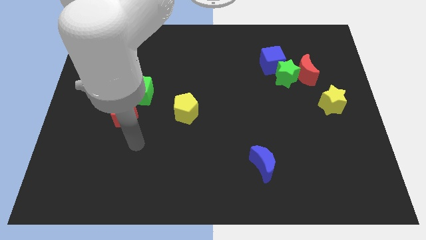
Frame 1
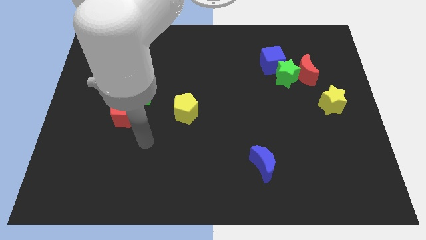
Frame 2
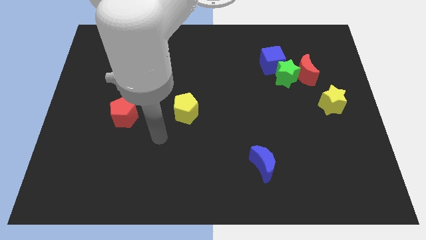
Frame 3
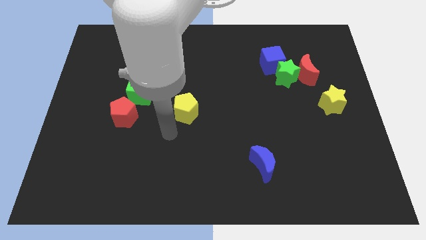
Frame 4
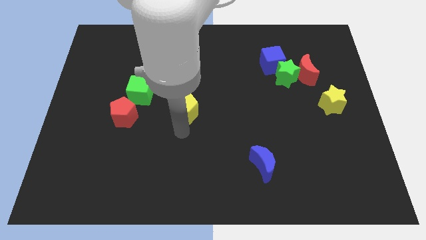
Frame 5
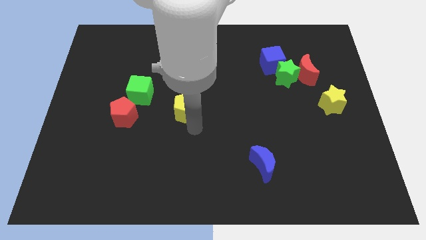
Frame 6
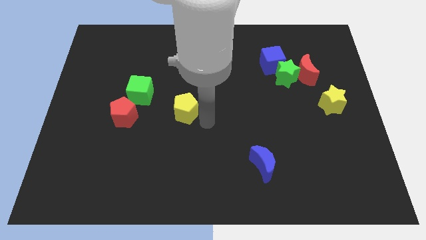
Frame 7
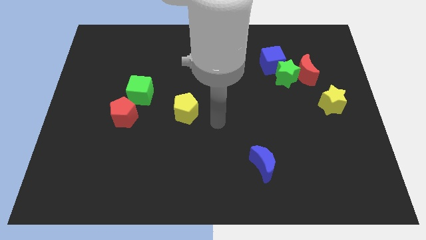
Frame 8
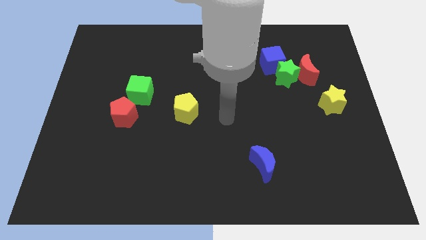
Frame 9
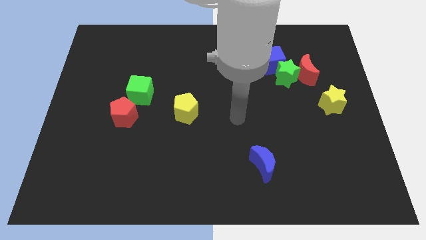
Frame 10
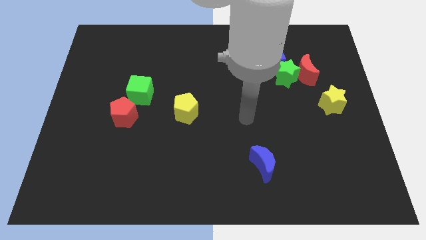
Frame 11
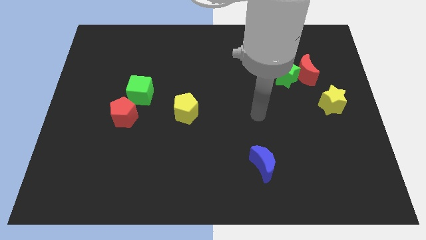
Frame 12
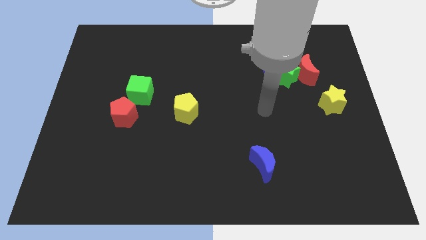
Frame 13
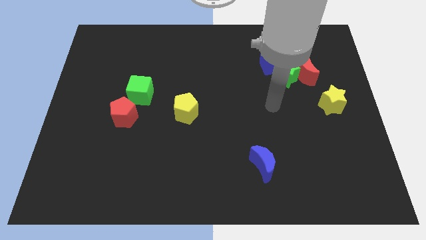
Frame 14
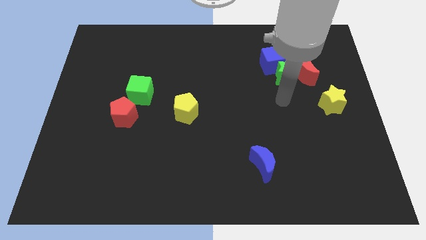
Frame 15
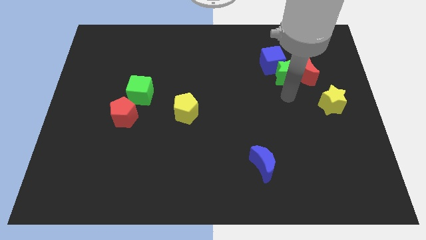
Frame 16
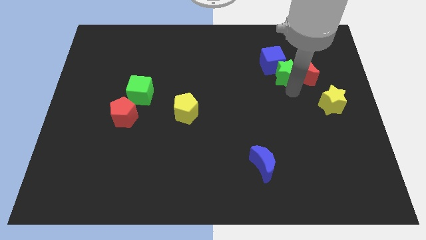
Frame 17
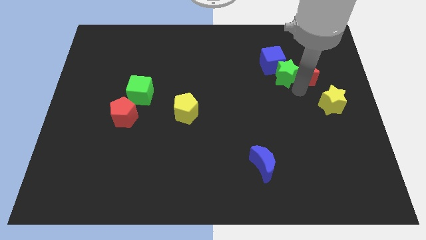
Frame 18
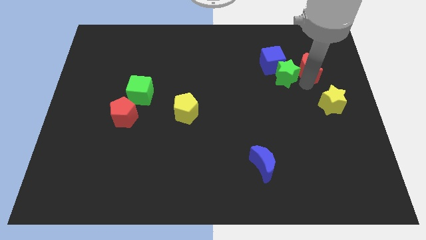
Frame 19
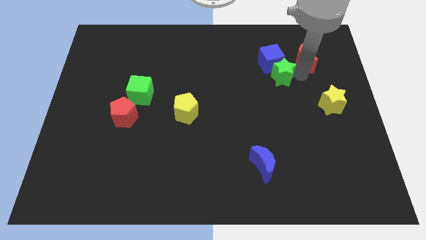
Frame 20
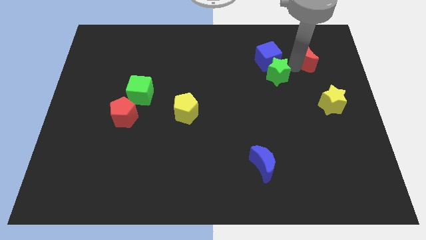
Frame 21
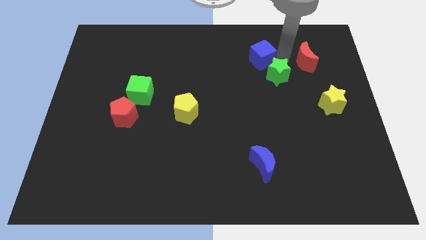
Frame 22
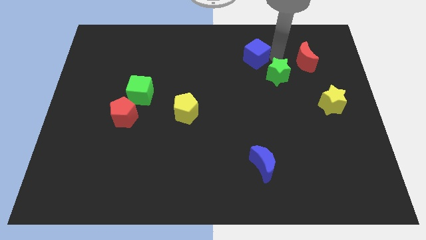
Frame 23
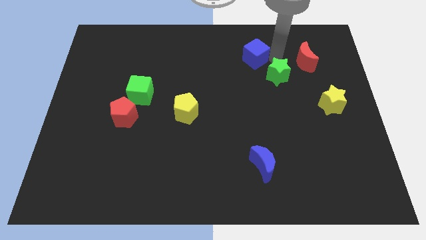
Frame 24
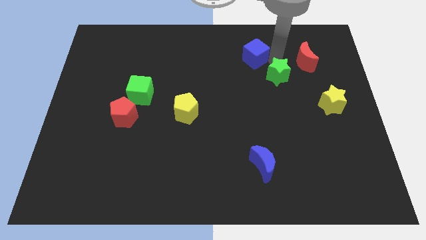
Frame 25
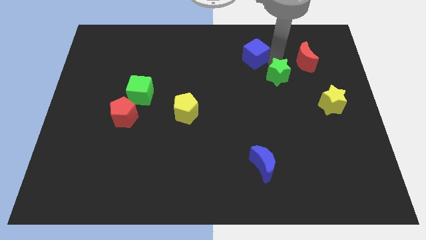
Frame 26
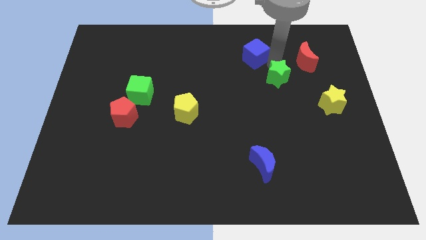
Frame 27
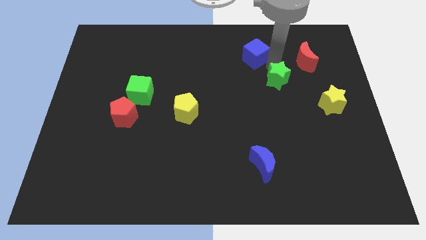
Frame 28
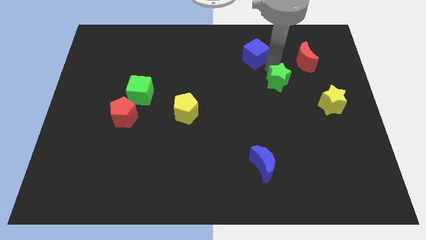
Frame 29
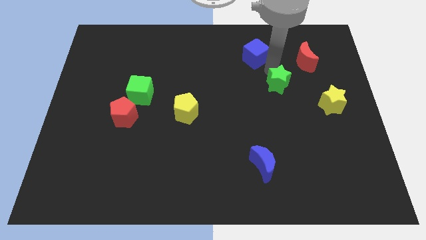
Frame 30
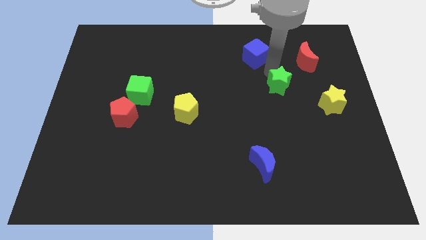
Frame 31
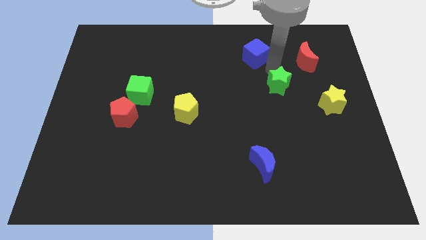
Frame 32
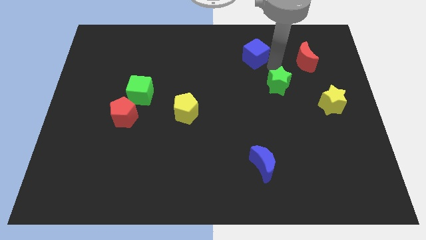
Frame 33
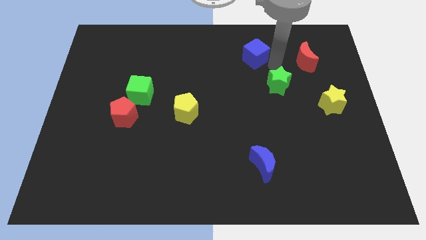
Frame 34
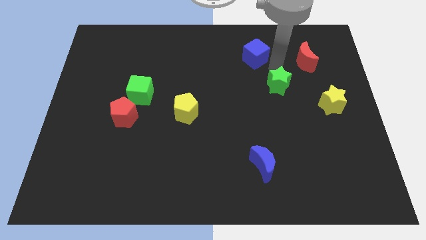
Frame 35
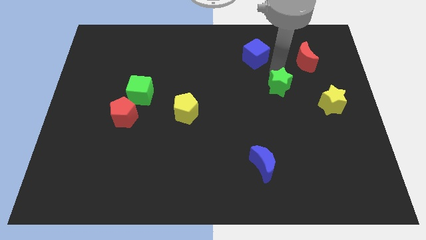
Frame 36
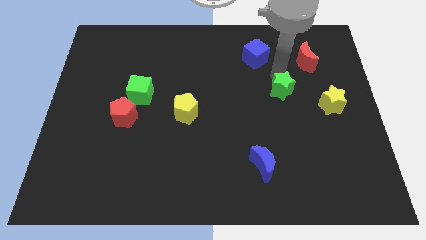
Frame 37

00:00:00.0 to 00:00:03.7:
separate the green star from the red moon and blue cube

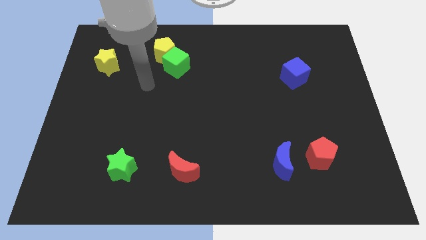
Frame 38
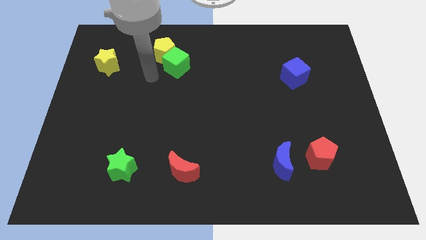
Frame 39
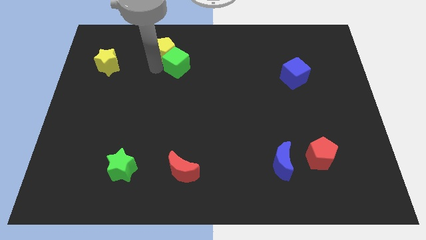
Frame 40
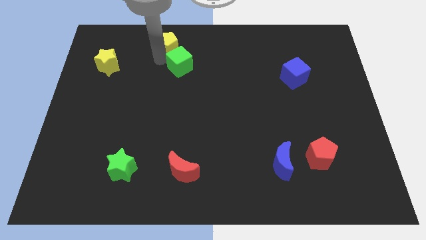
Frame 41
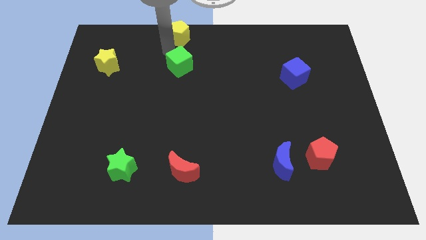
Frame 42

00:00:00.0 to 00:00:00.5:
move the green cube away from the yellow pentagon

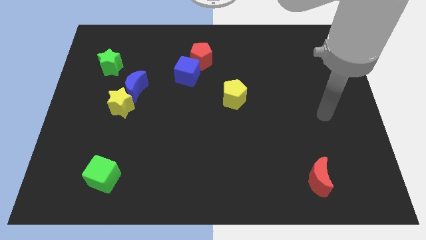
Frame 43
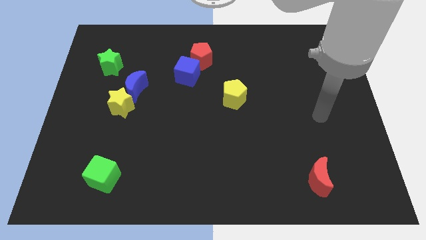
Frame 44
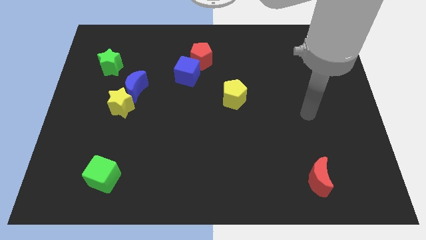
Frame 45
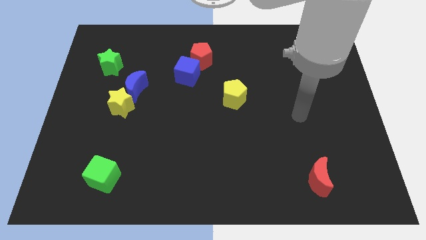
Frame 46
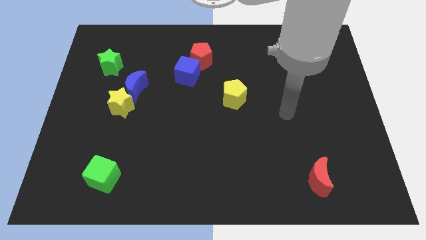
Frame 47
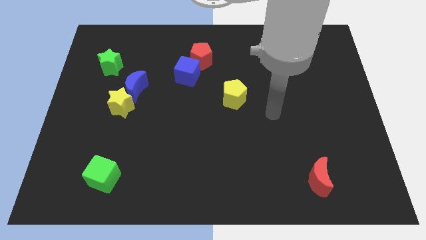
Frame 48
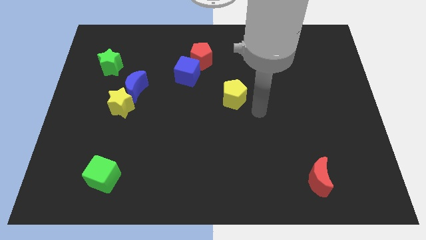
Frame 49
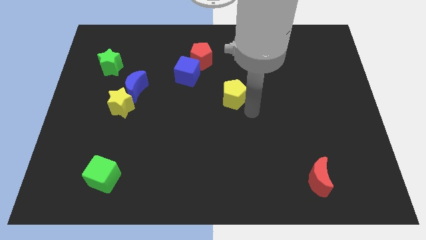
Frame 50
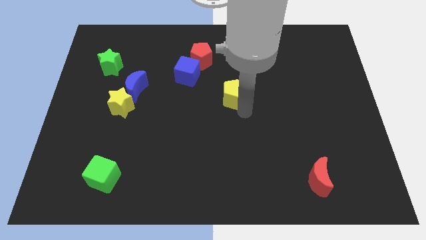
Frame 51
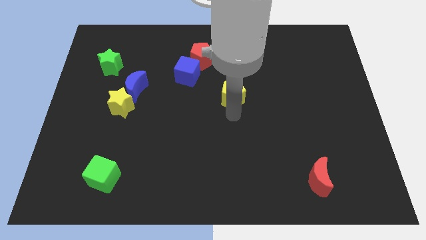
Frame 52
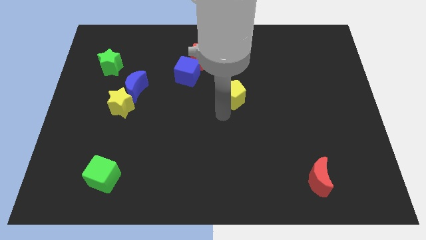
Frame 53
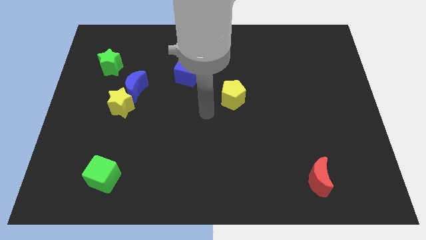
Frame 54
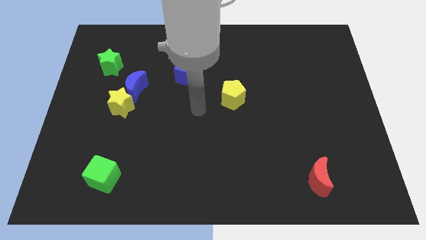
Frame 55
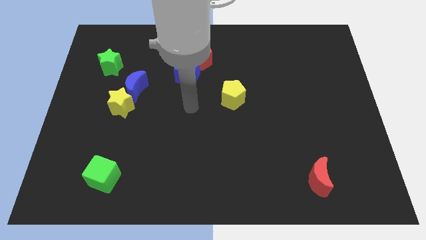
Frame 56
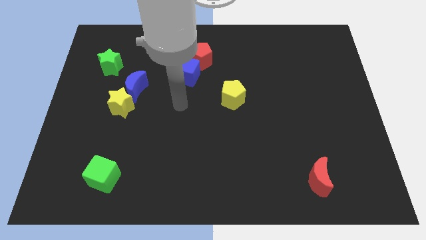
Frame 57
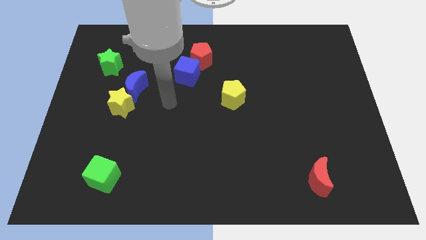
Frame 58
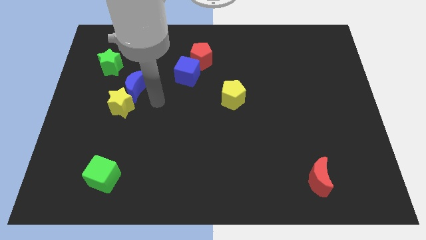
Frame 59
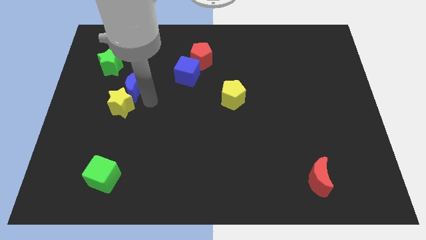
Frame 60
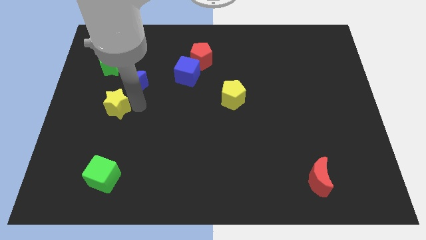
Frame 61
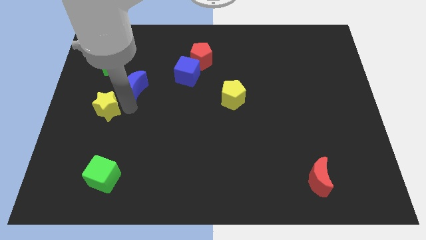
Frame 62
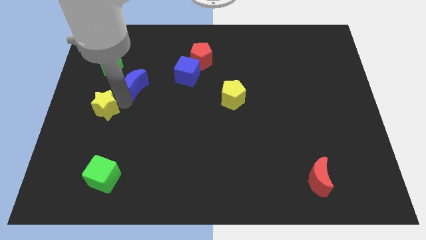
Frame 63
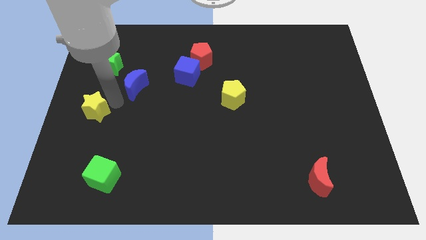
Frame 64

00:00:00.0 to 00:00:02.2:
separate the blue moon from the yellow star

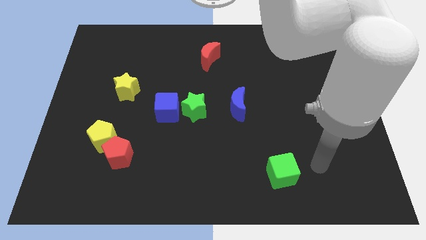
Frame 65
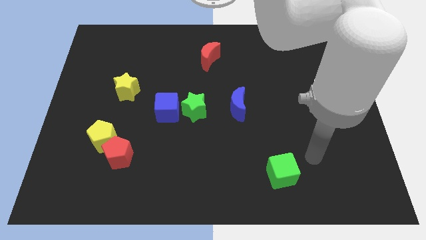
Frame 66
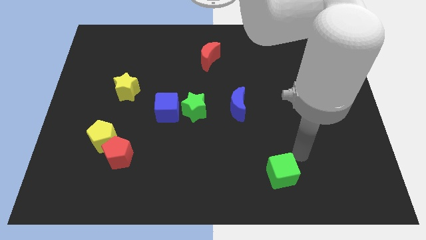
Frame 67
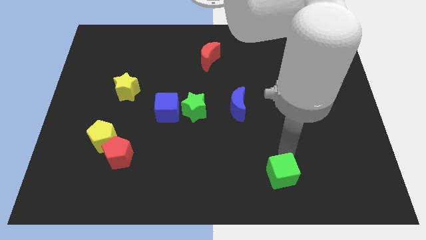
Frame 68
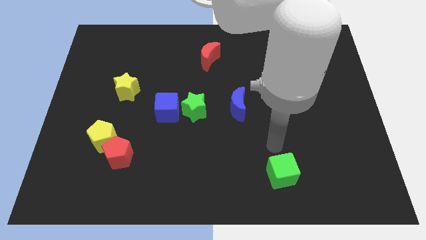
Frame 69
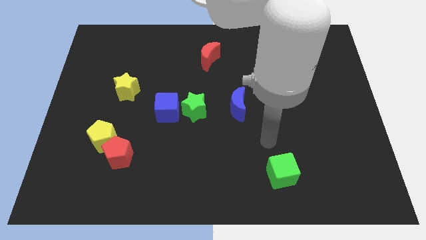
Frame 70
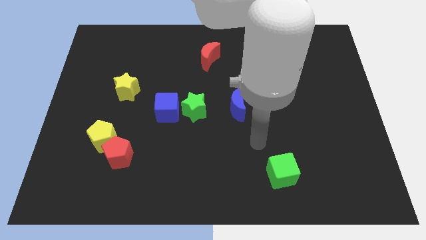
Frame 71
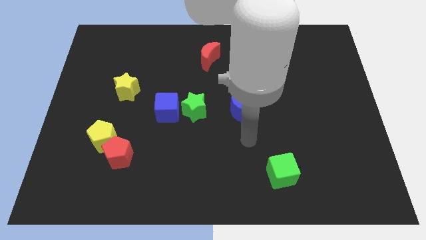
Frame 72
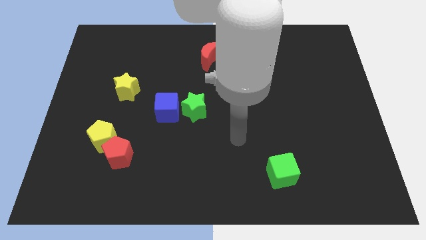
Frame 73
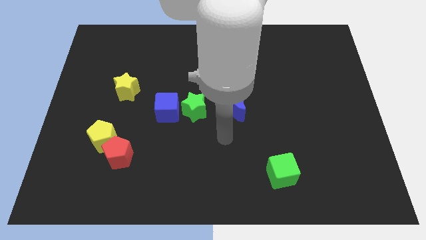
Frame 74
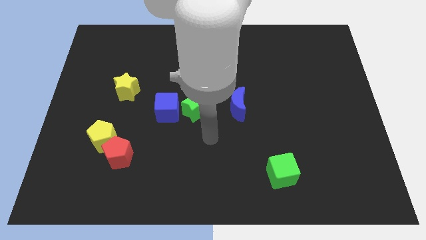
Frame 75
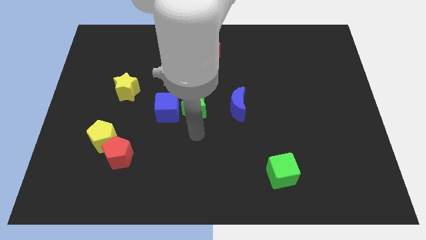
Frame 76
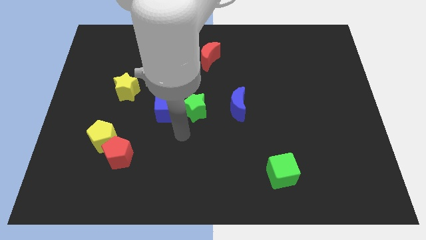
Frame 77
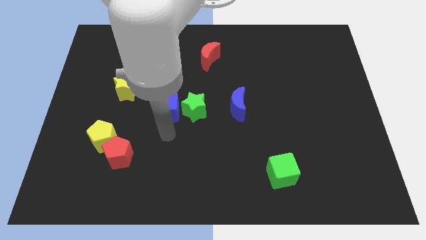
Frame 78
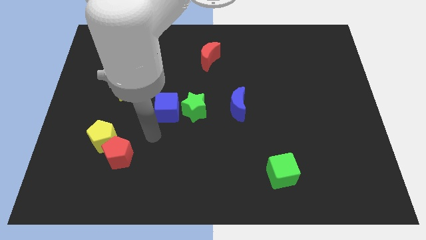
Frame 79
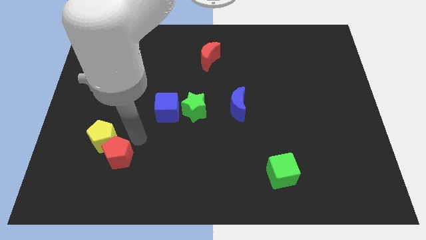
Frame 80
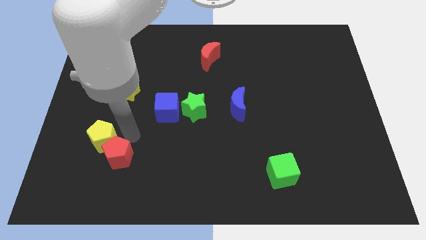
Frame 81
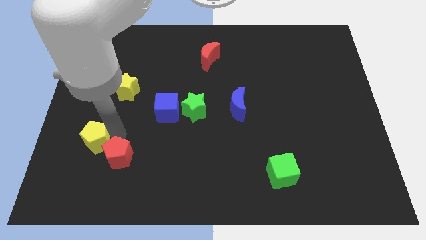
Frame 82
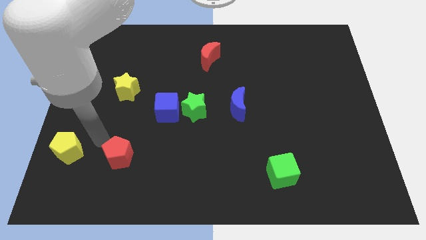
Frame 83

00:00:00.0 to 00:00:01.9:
separate the red pentagon from the yellow pentagon

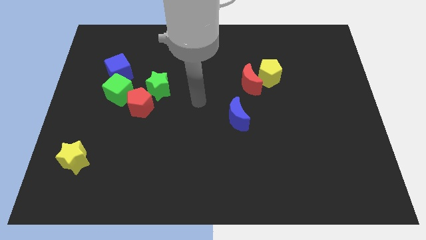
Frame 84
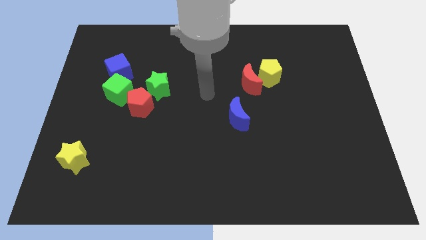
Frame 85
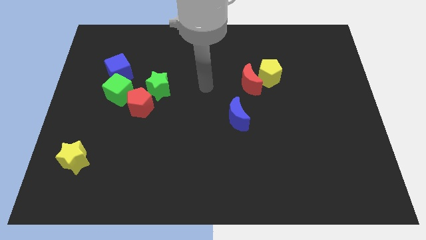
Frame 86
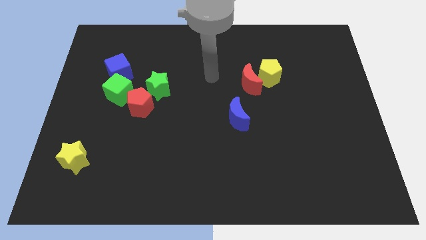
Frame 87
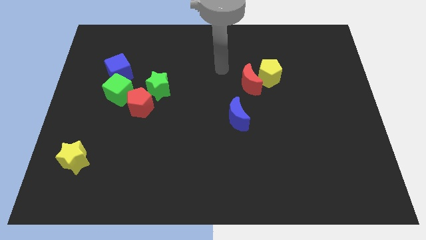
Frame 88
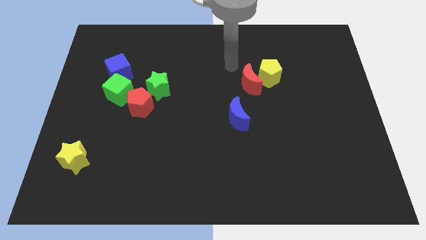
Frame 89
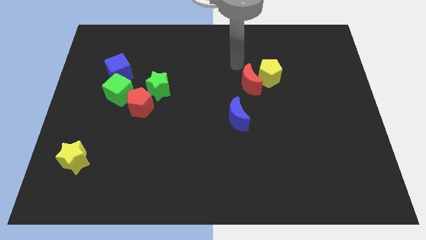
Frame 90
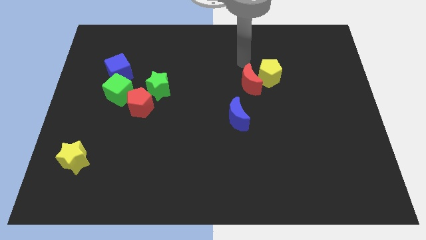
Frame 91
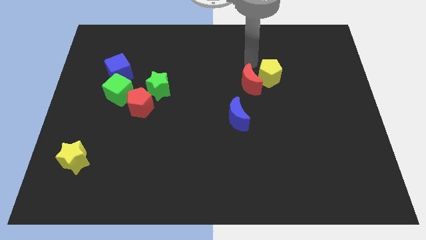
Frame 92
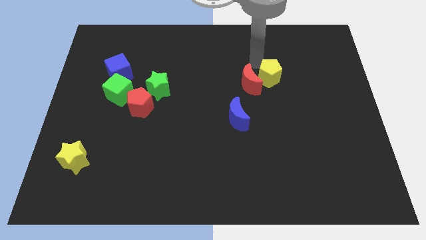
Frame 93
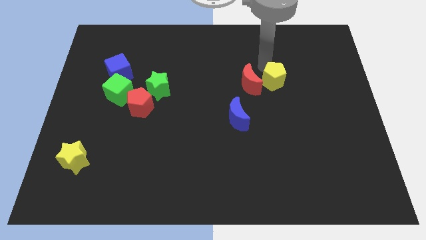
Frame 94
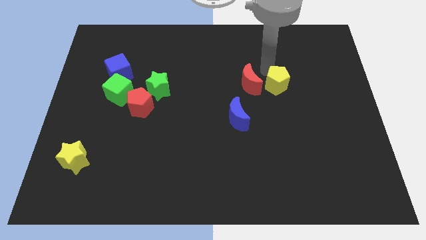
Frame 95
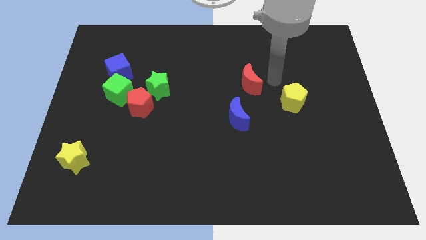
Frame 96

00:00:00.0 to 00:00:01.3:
pull the red moon apart from the yellow pentagon
